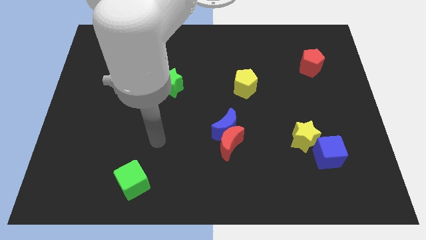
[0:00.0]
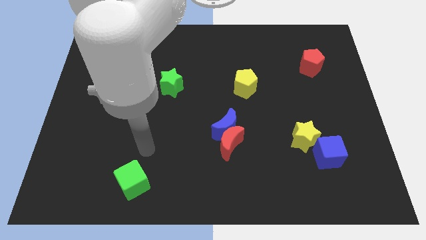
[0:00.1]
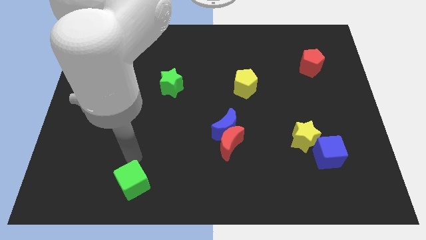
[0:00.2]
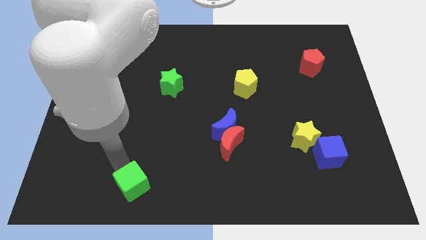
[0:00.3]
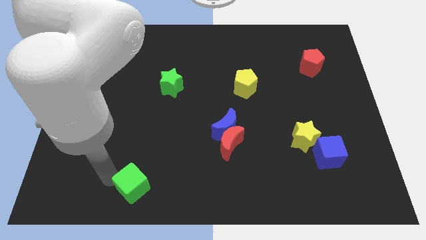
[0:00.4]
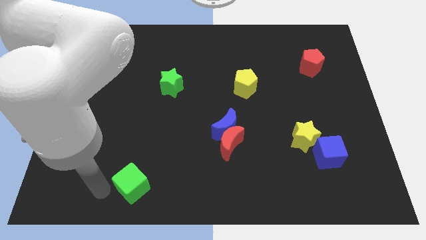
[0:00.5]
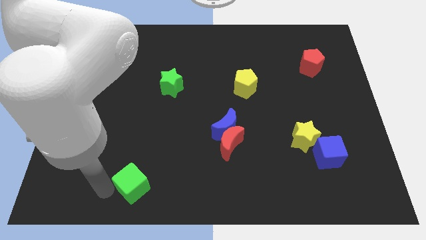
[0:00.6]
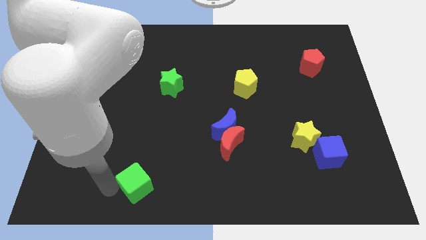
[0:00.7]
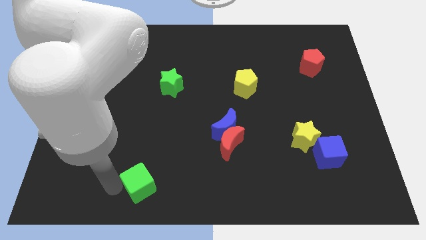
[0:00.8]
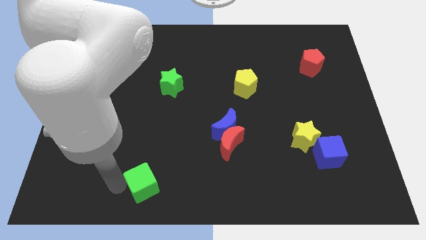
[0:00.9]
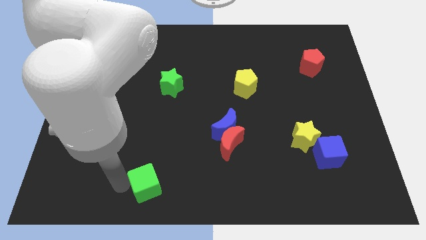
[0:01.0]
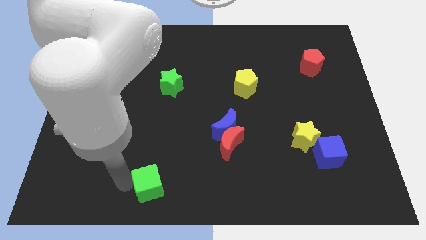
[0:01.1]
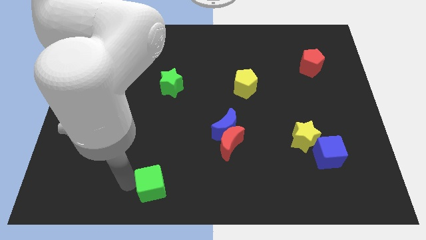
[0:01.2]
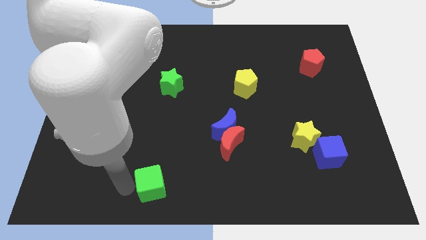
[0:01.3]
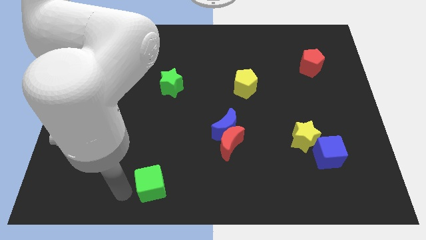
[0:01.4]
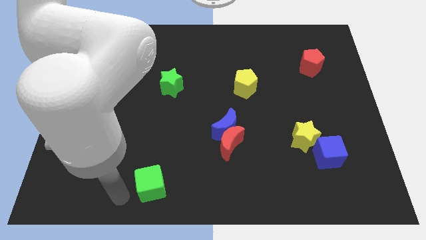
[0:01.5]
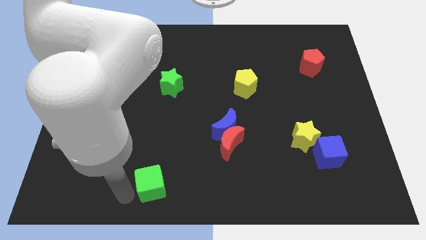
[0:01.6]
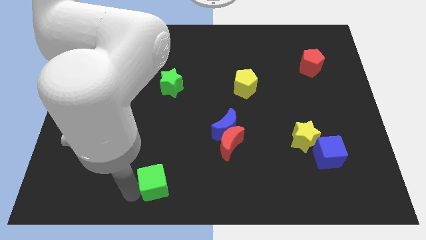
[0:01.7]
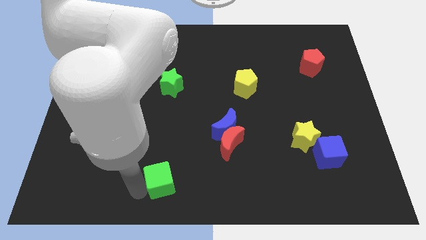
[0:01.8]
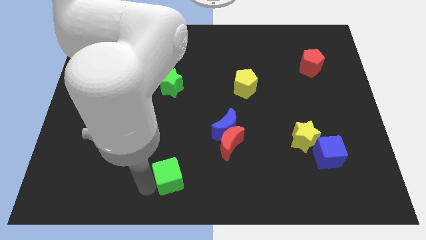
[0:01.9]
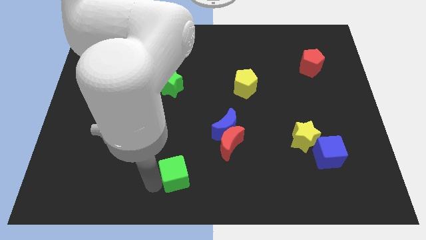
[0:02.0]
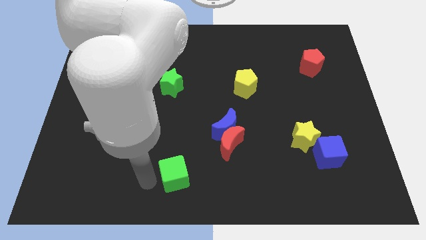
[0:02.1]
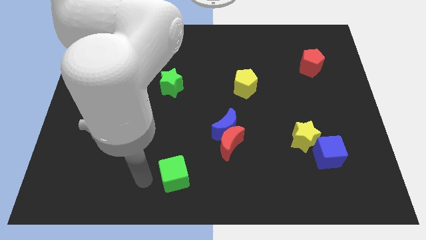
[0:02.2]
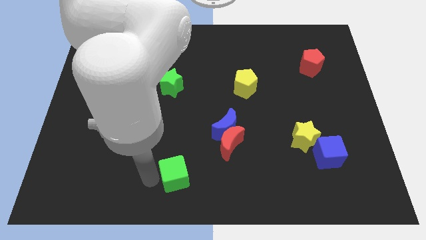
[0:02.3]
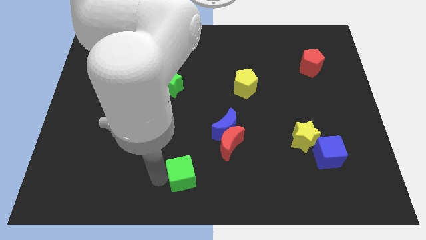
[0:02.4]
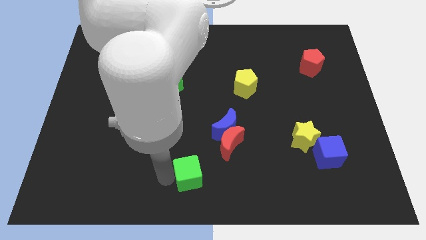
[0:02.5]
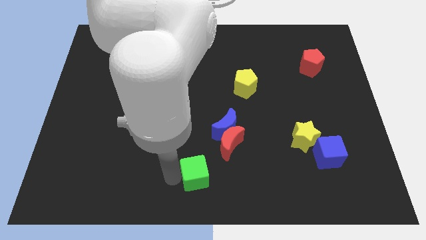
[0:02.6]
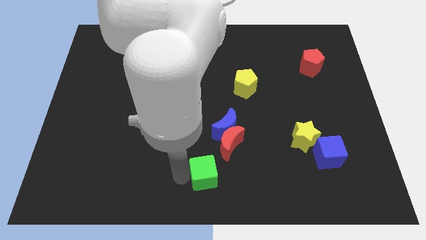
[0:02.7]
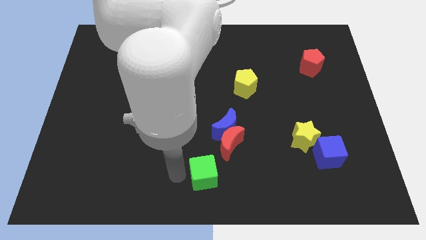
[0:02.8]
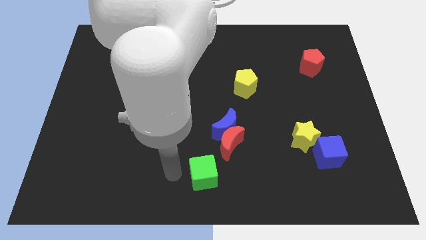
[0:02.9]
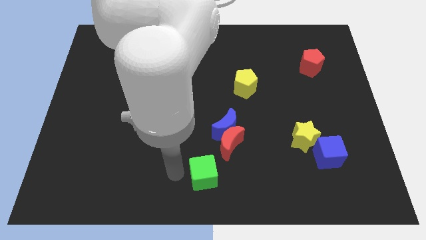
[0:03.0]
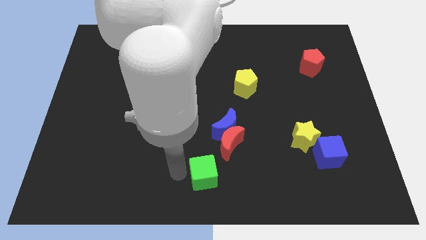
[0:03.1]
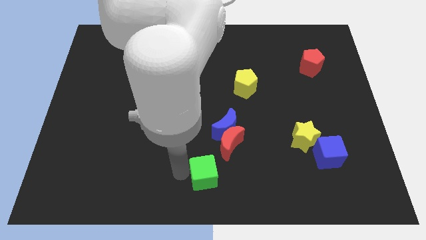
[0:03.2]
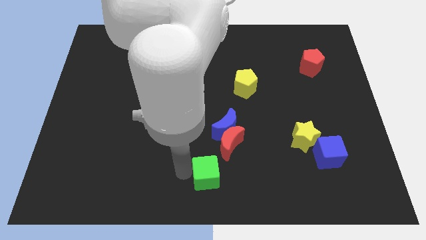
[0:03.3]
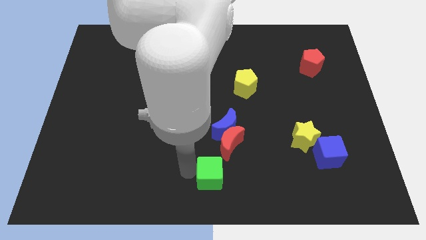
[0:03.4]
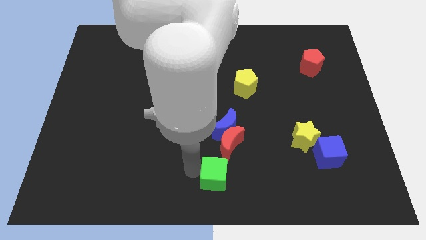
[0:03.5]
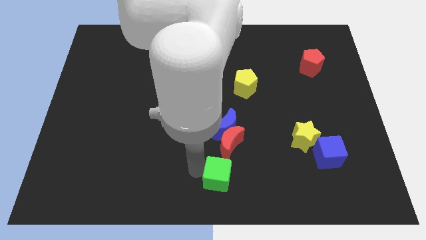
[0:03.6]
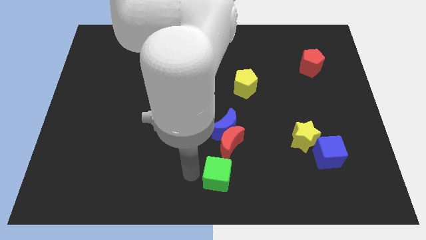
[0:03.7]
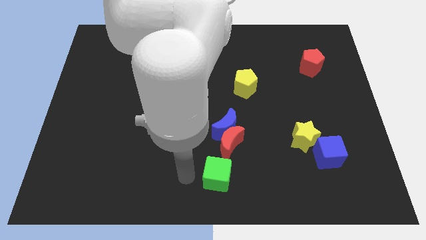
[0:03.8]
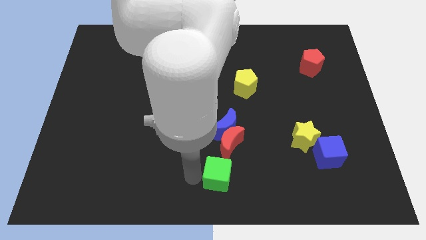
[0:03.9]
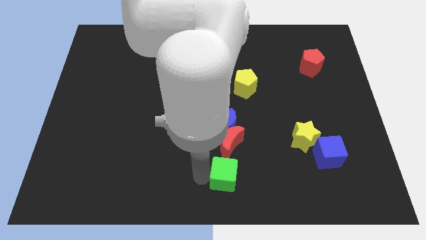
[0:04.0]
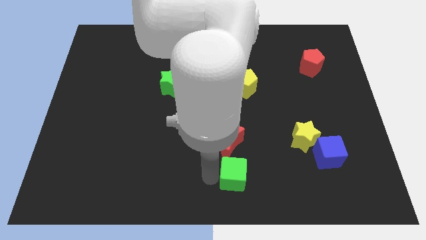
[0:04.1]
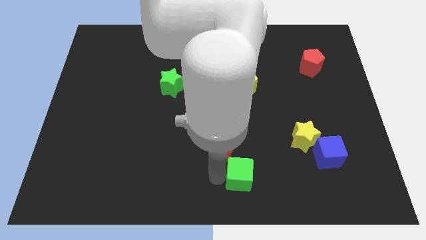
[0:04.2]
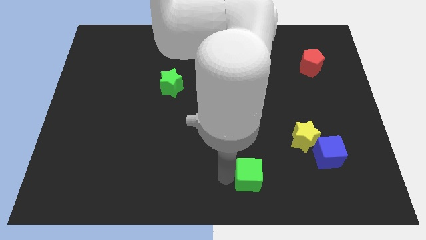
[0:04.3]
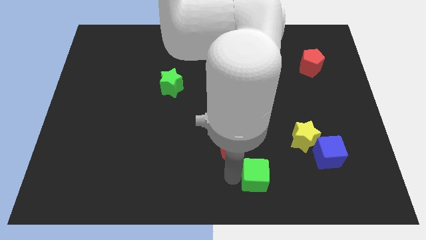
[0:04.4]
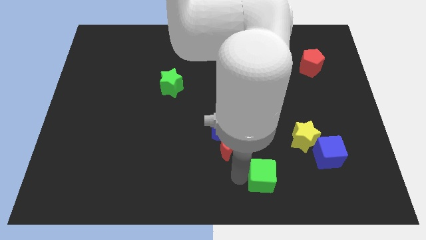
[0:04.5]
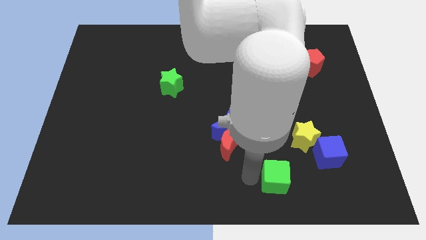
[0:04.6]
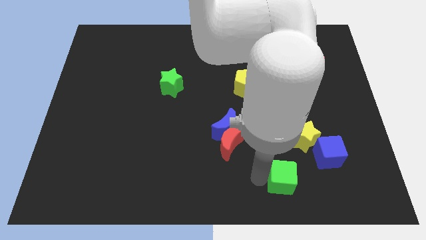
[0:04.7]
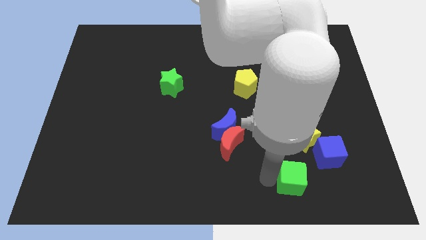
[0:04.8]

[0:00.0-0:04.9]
put the green cube below the yellow star

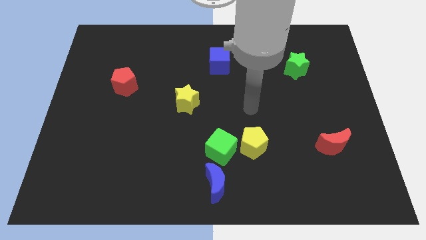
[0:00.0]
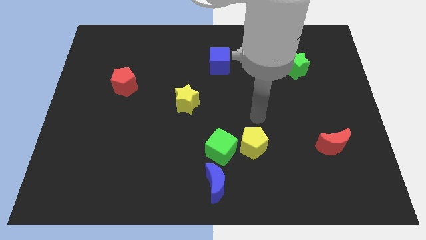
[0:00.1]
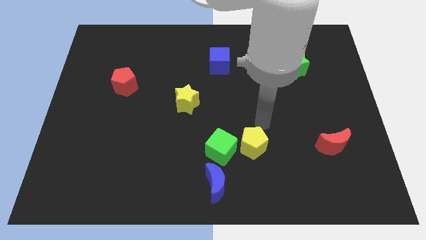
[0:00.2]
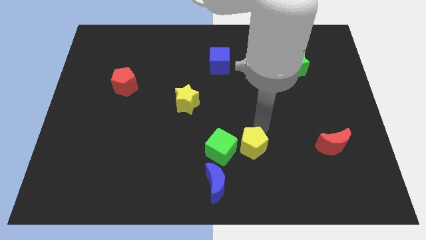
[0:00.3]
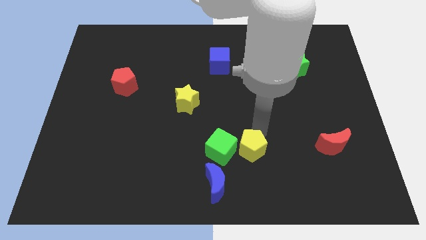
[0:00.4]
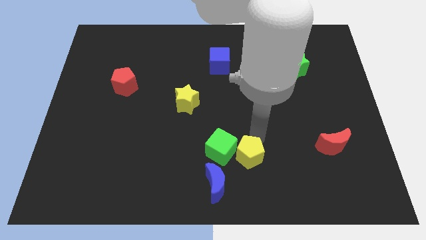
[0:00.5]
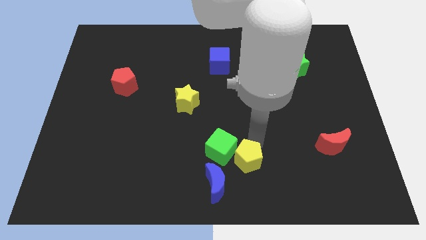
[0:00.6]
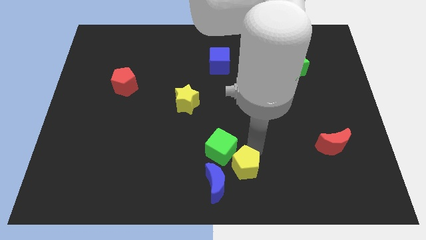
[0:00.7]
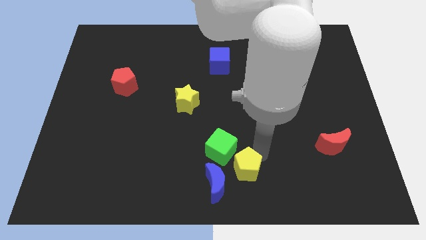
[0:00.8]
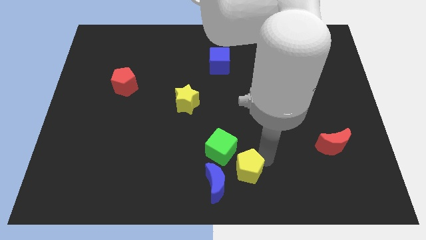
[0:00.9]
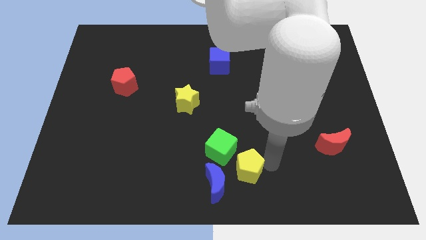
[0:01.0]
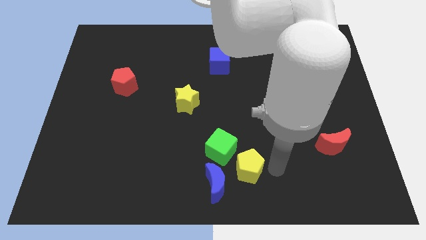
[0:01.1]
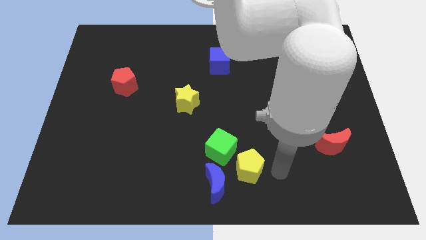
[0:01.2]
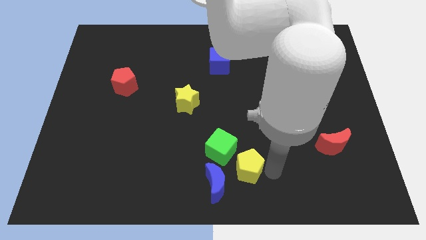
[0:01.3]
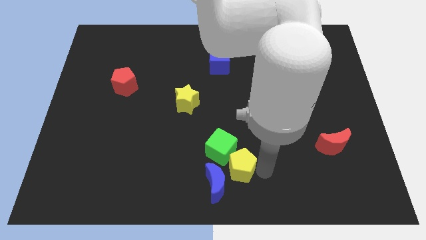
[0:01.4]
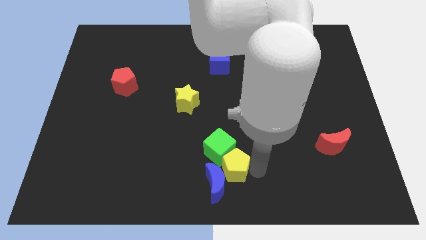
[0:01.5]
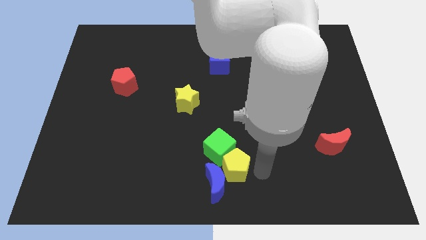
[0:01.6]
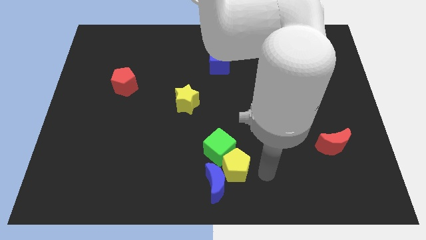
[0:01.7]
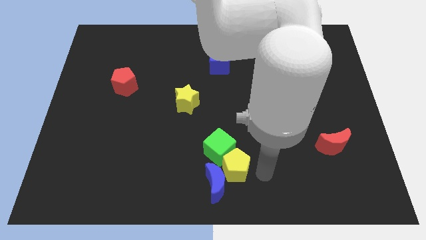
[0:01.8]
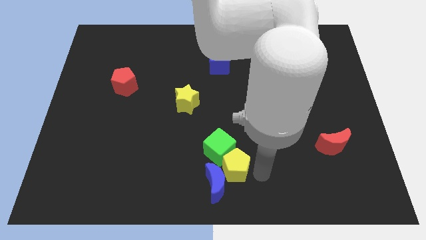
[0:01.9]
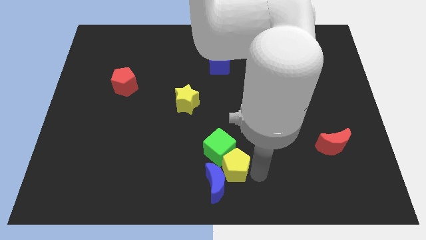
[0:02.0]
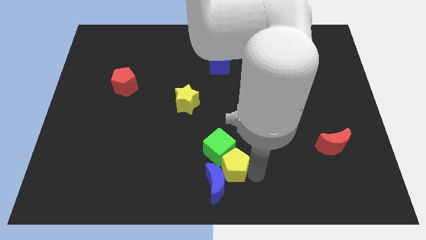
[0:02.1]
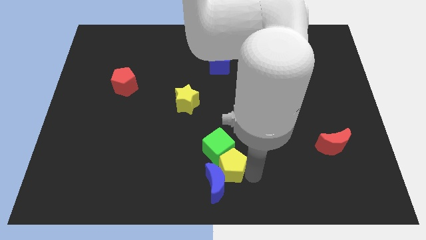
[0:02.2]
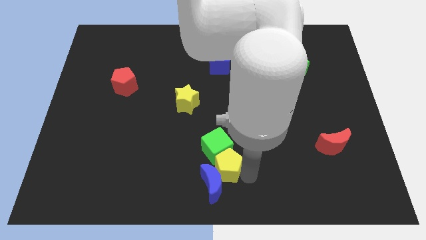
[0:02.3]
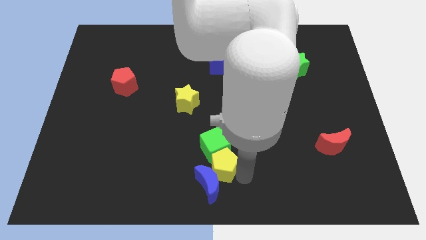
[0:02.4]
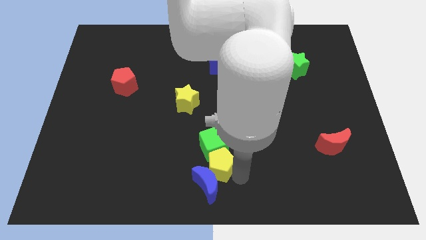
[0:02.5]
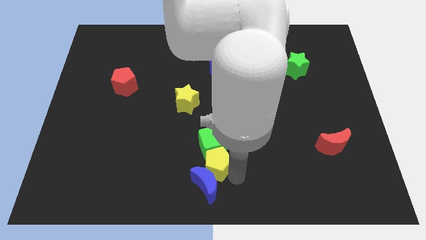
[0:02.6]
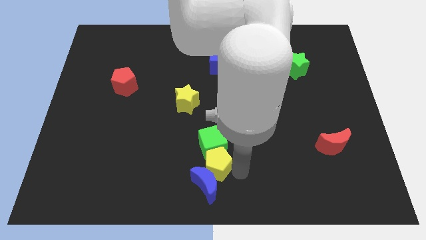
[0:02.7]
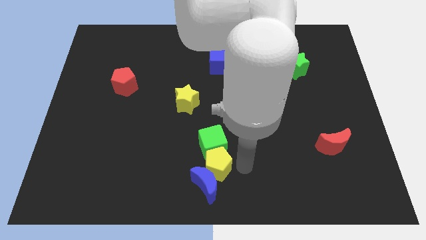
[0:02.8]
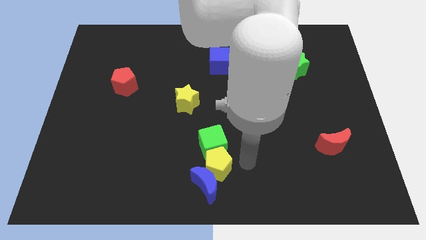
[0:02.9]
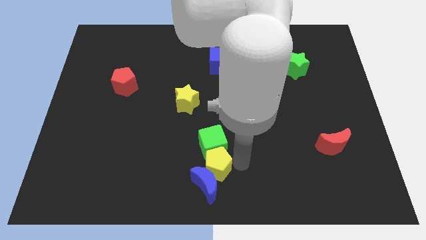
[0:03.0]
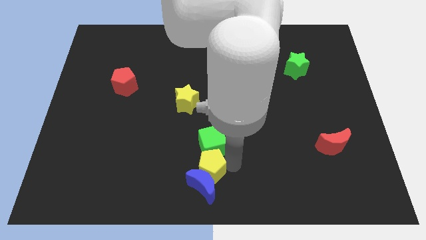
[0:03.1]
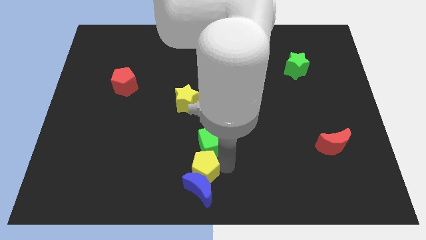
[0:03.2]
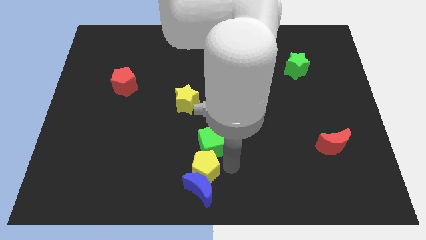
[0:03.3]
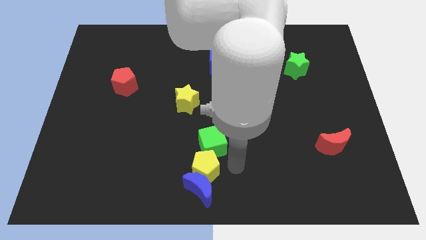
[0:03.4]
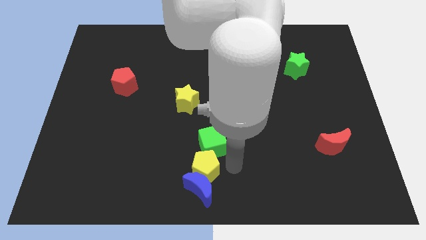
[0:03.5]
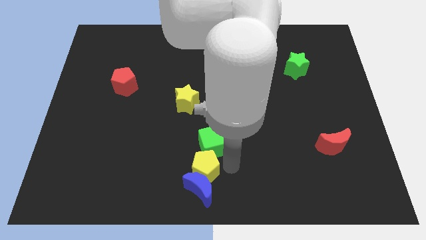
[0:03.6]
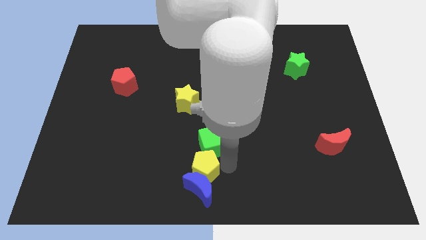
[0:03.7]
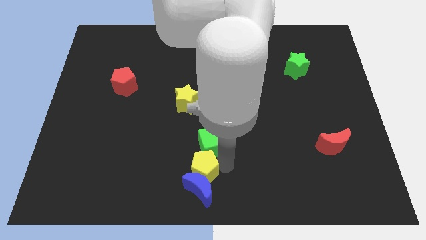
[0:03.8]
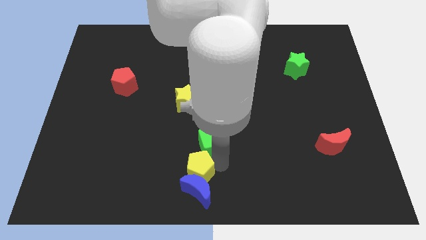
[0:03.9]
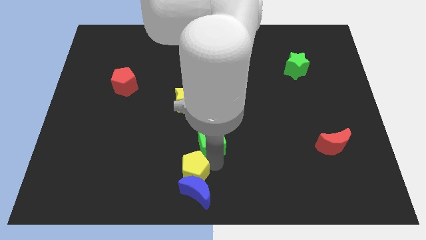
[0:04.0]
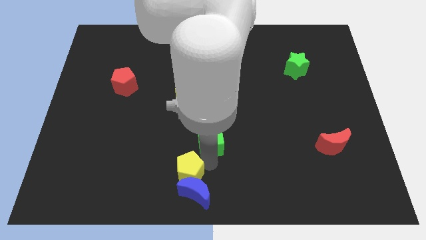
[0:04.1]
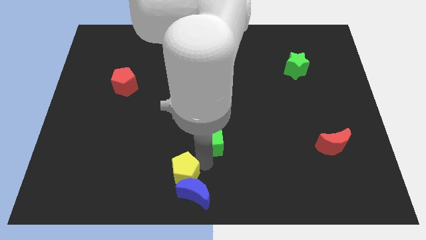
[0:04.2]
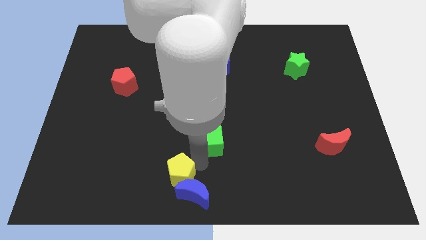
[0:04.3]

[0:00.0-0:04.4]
push the yellow pentagon left of the blue moon
